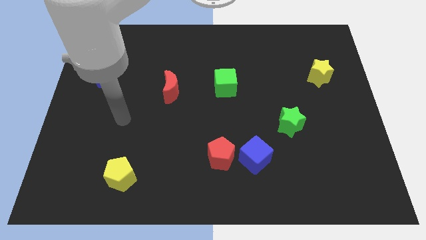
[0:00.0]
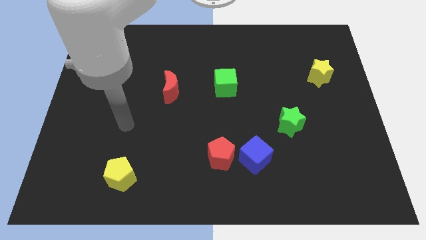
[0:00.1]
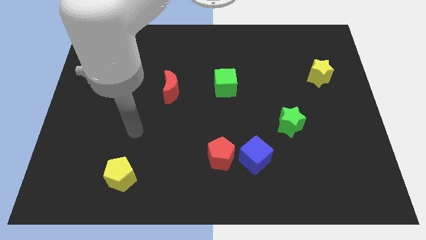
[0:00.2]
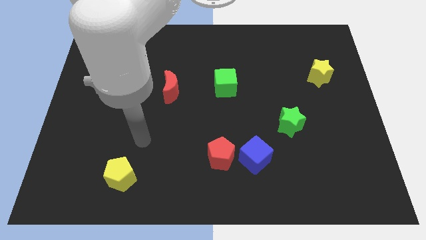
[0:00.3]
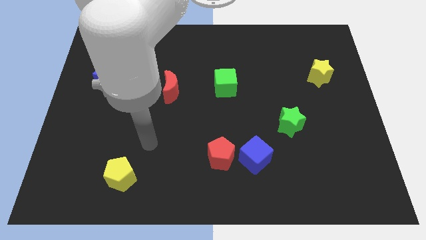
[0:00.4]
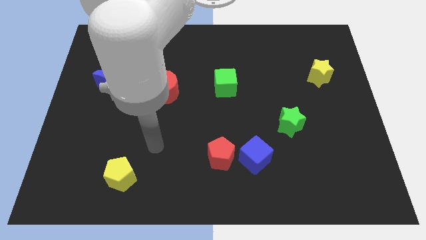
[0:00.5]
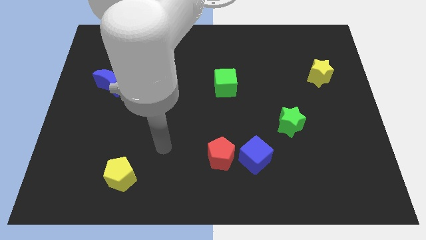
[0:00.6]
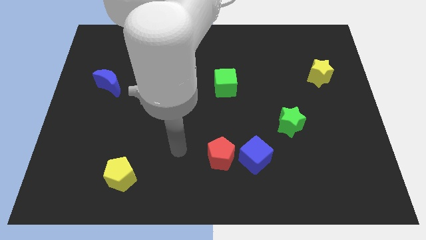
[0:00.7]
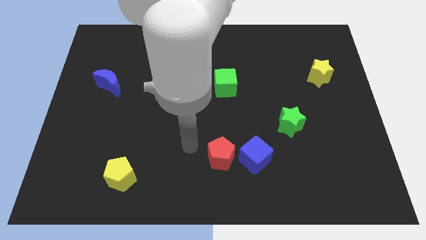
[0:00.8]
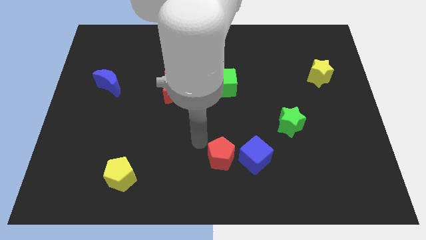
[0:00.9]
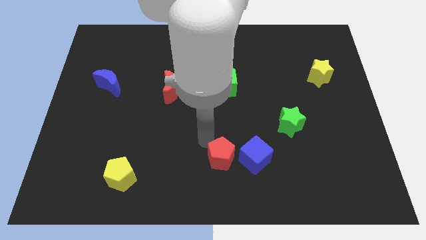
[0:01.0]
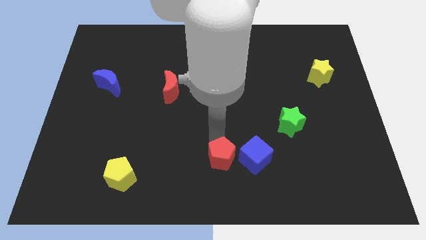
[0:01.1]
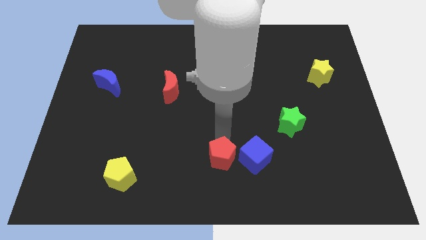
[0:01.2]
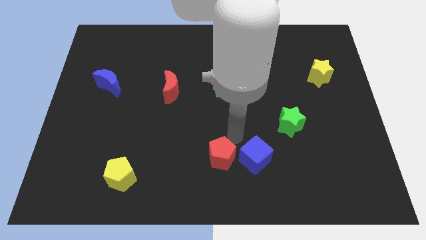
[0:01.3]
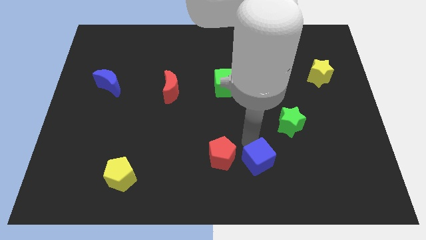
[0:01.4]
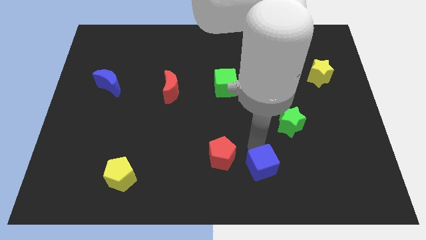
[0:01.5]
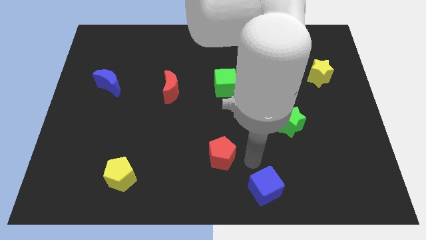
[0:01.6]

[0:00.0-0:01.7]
separate the red pentagon from the blue cube

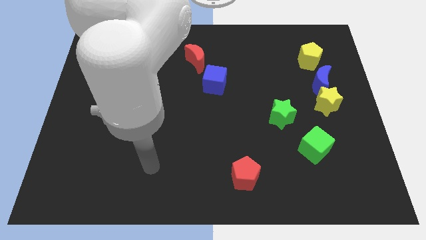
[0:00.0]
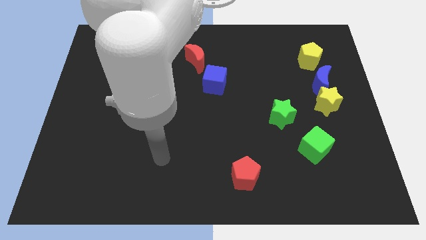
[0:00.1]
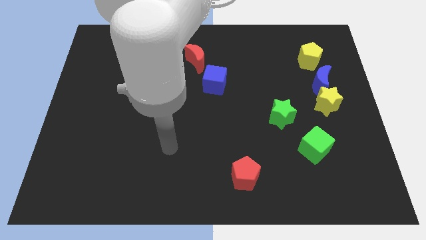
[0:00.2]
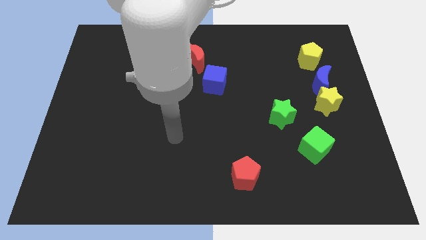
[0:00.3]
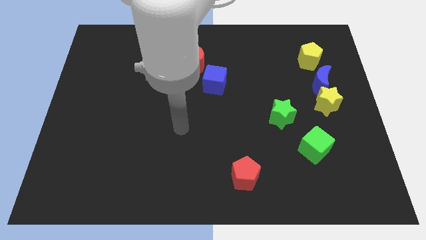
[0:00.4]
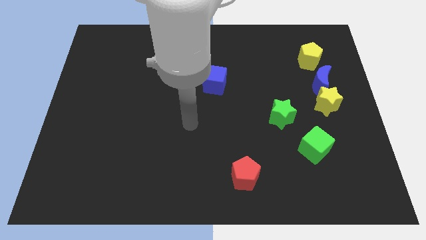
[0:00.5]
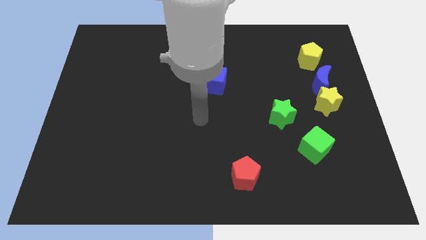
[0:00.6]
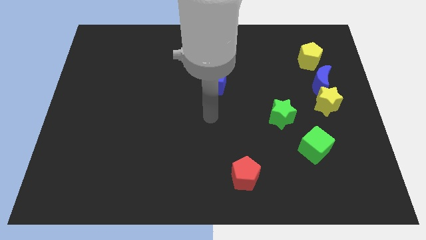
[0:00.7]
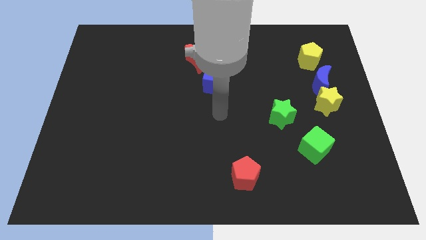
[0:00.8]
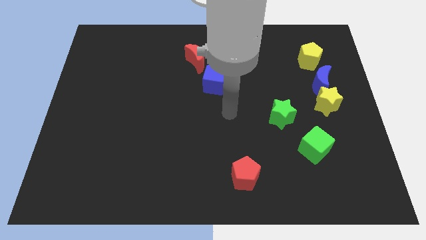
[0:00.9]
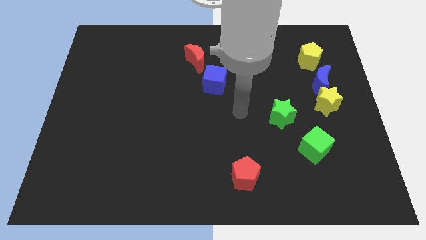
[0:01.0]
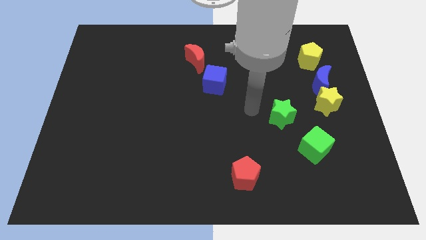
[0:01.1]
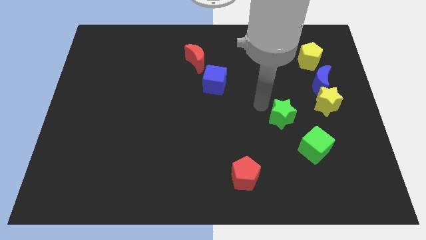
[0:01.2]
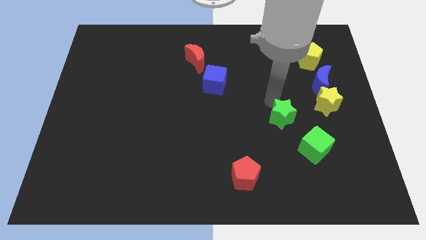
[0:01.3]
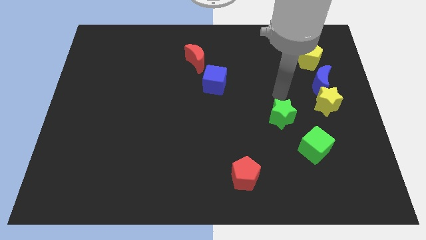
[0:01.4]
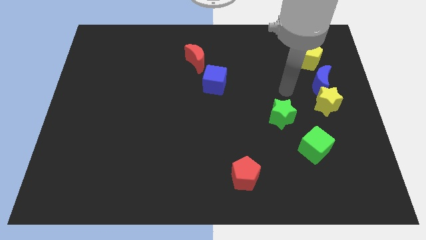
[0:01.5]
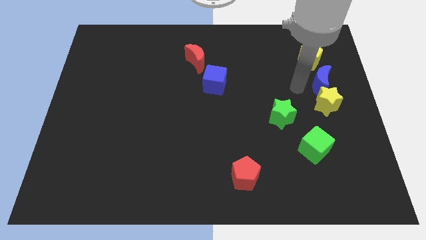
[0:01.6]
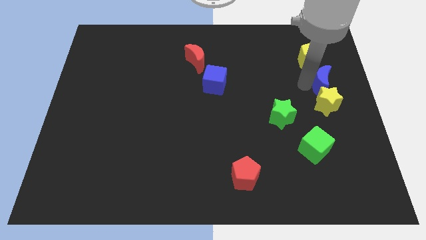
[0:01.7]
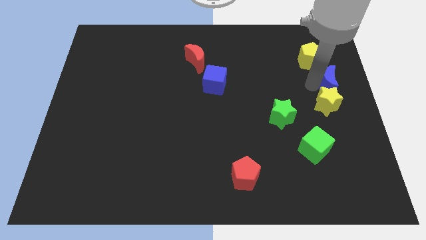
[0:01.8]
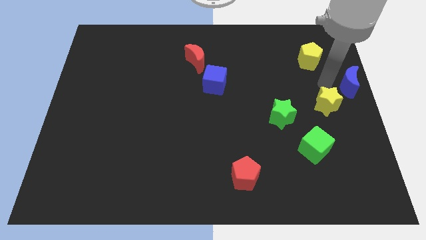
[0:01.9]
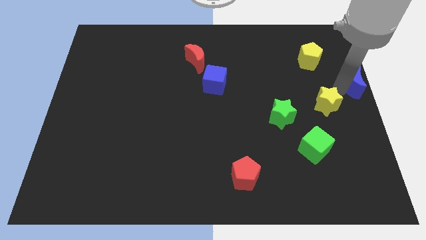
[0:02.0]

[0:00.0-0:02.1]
pull the yellow star apart from the blue moon

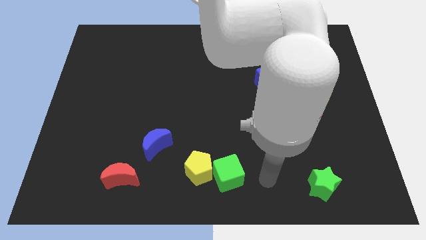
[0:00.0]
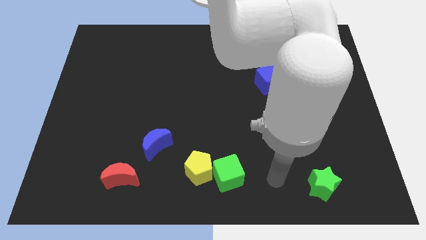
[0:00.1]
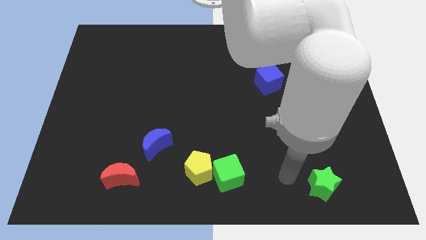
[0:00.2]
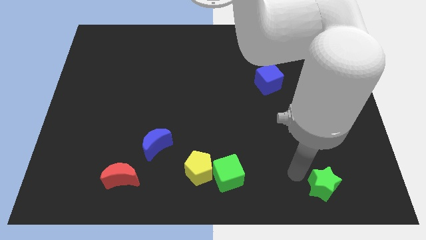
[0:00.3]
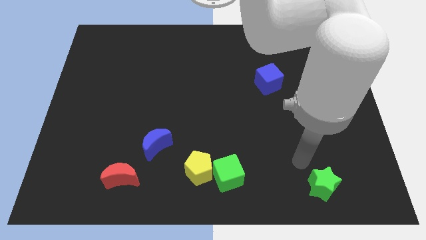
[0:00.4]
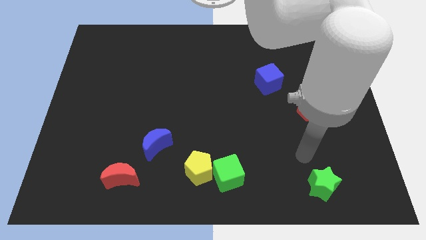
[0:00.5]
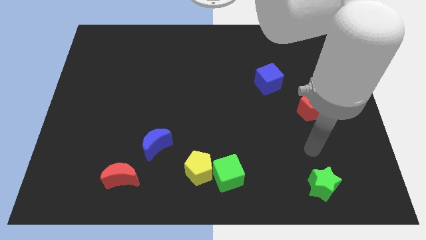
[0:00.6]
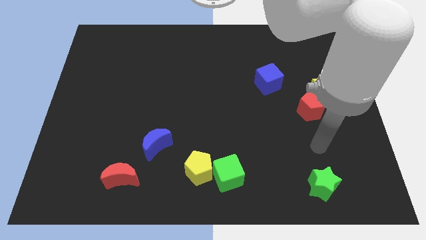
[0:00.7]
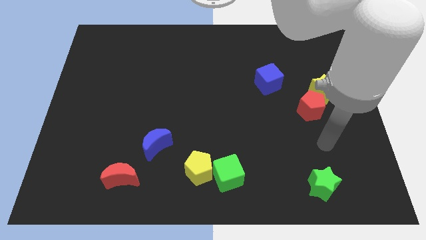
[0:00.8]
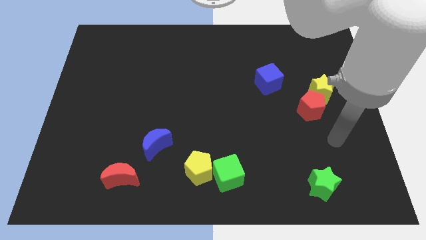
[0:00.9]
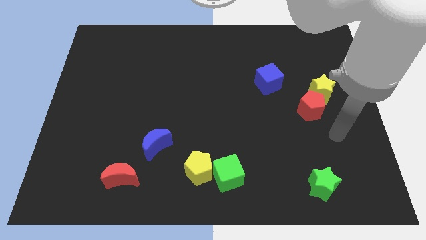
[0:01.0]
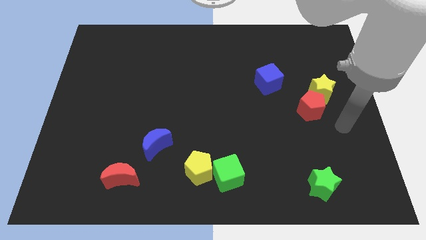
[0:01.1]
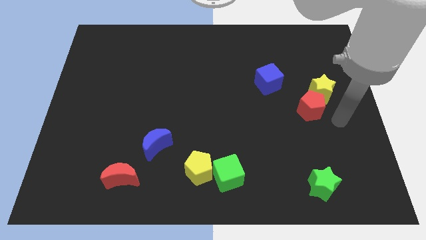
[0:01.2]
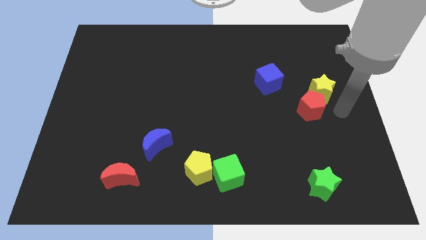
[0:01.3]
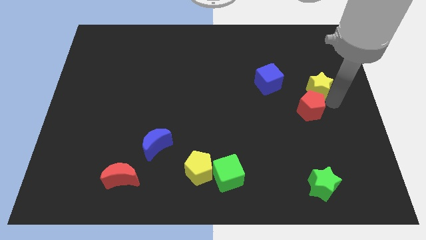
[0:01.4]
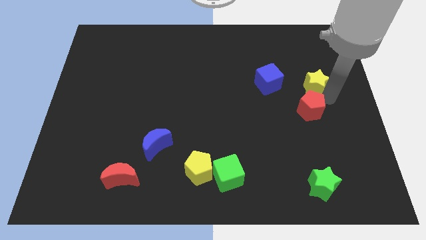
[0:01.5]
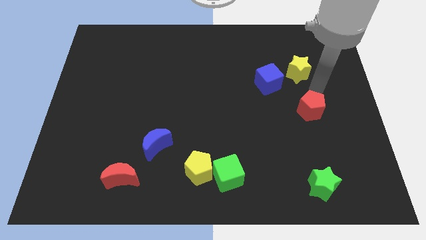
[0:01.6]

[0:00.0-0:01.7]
separate the red pentagon from the yellow star

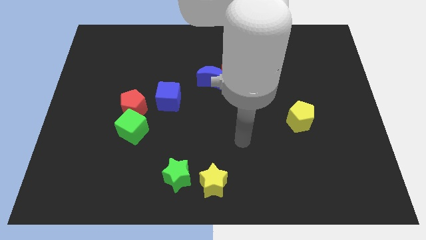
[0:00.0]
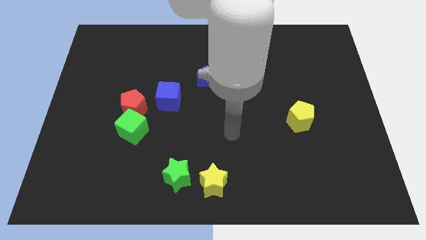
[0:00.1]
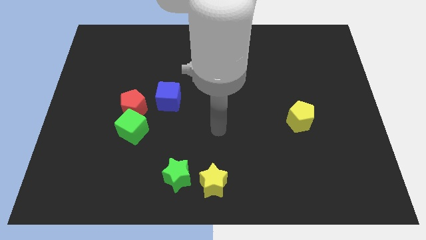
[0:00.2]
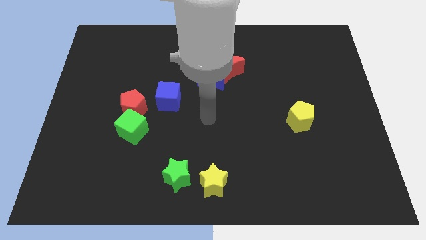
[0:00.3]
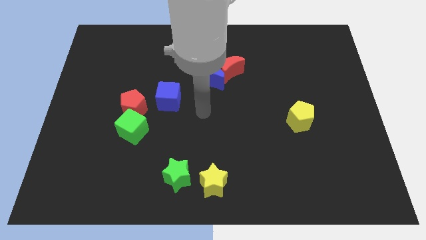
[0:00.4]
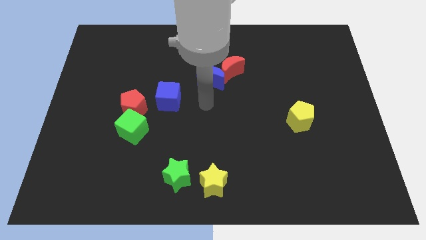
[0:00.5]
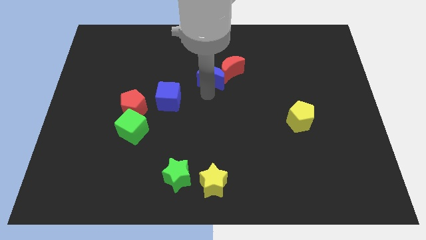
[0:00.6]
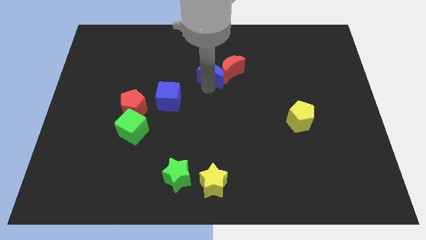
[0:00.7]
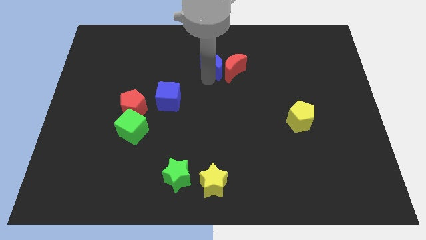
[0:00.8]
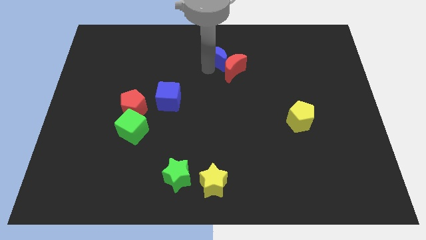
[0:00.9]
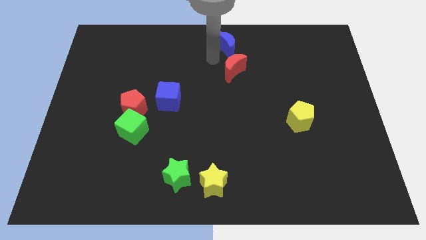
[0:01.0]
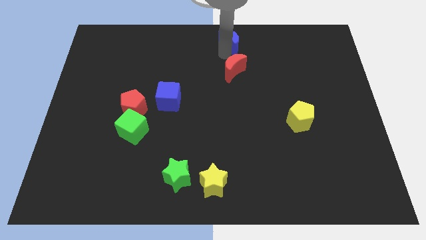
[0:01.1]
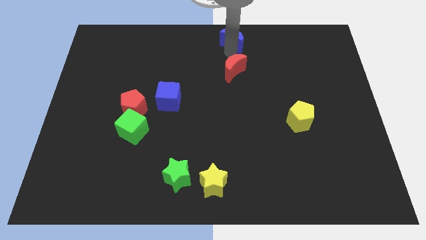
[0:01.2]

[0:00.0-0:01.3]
separate the red moon from the blue moon

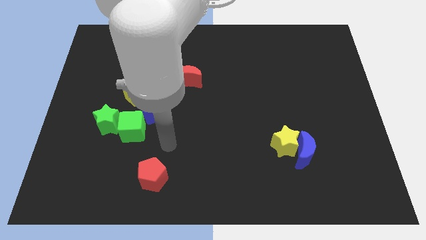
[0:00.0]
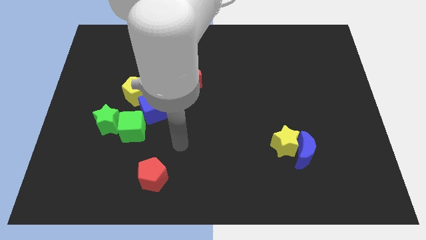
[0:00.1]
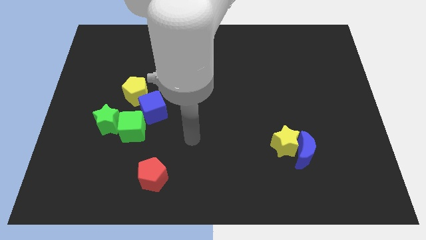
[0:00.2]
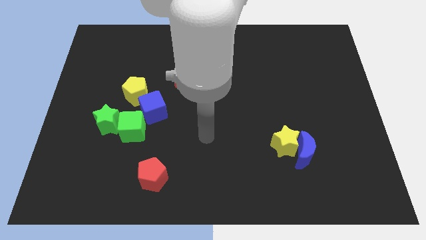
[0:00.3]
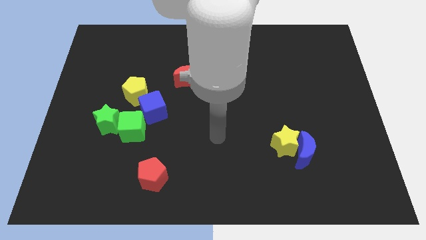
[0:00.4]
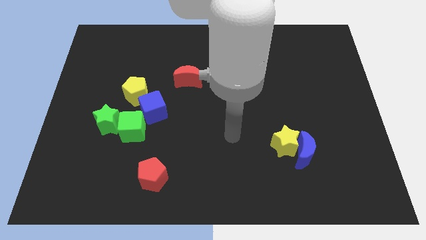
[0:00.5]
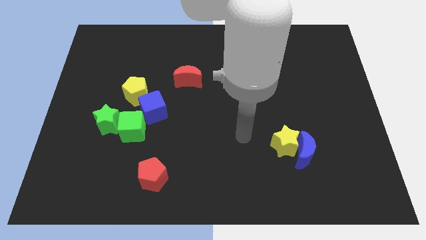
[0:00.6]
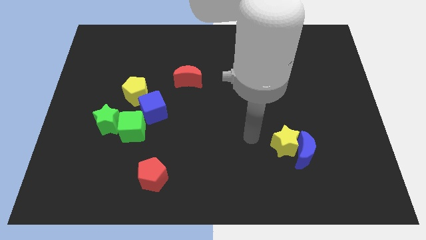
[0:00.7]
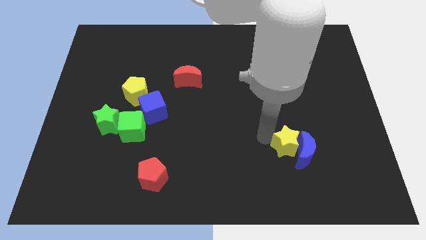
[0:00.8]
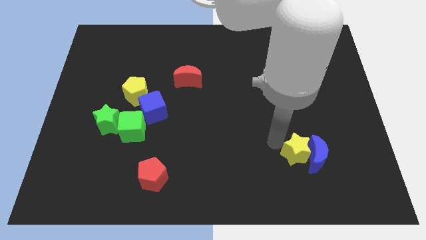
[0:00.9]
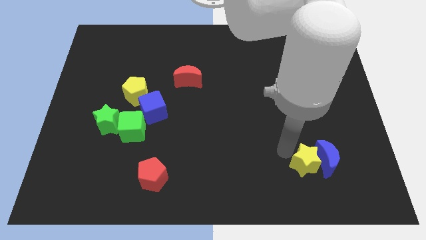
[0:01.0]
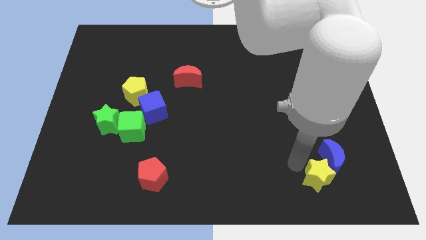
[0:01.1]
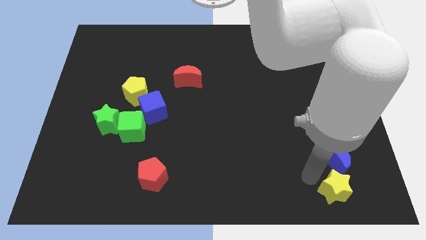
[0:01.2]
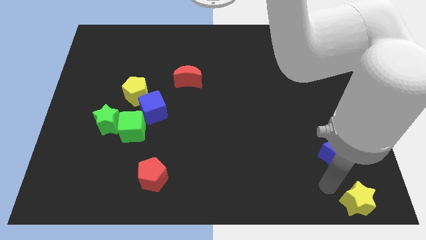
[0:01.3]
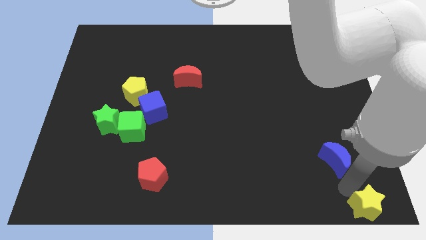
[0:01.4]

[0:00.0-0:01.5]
pull the blue moon apart from the yellow star

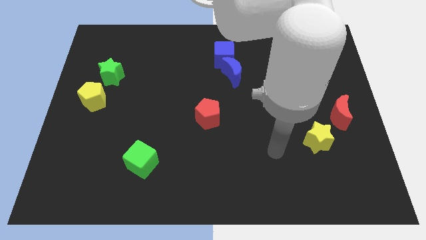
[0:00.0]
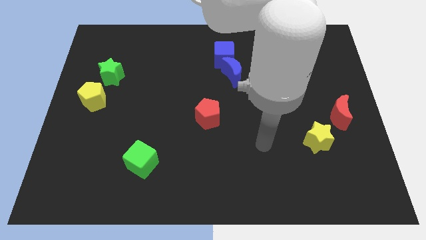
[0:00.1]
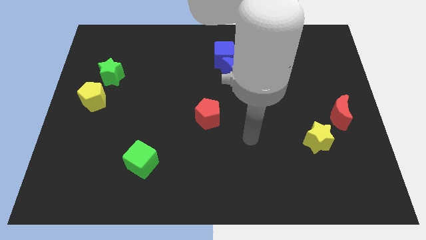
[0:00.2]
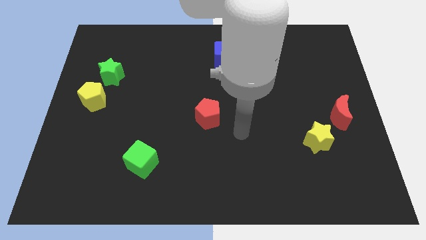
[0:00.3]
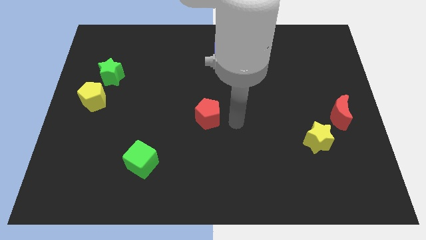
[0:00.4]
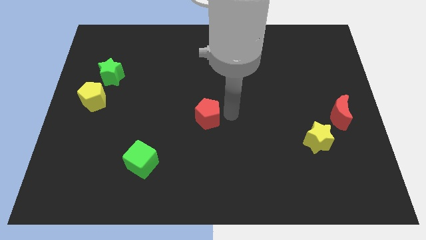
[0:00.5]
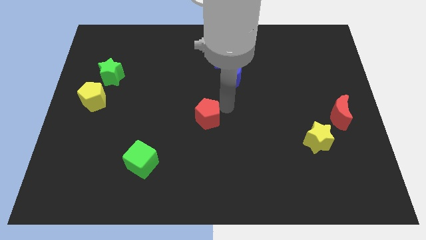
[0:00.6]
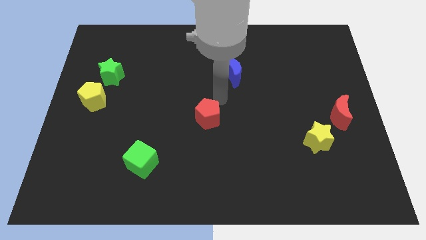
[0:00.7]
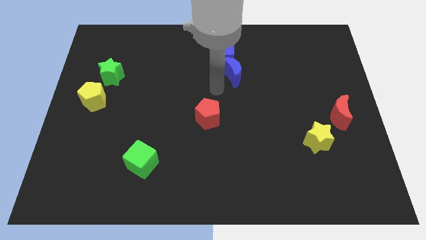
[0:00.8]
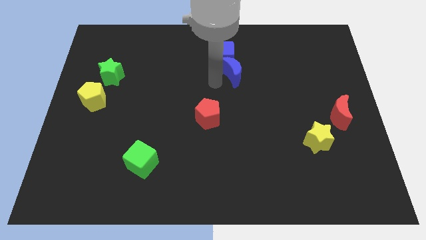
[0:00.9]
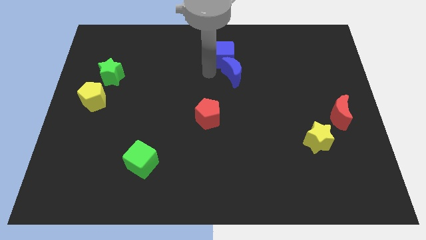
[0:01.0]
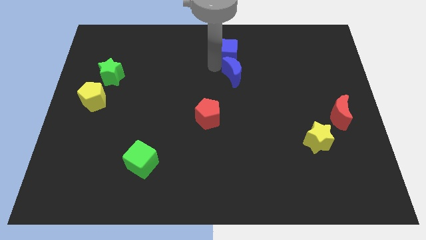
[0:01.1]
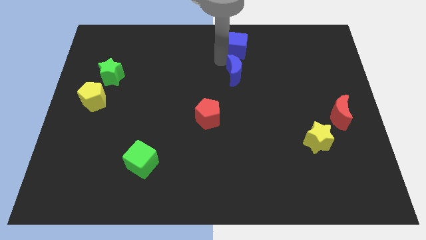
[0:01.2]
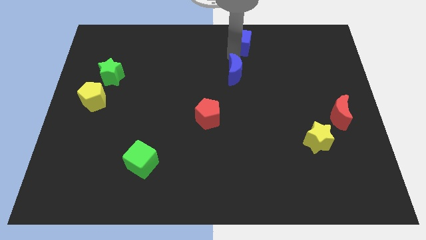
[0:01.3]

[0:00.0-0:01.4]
separate the blue moon from the blue cube
